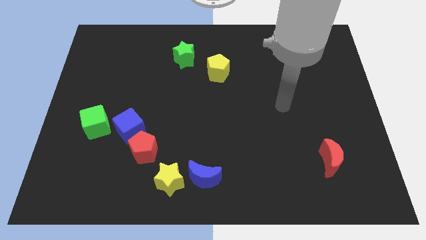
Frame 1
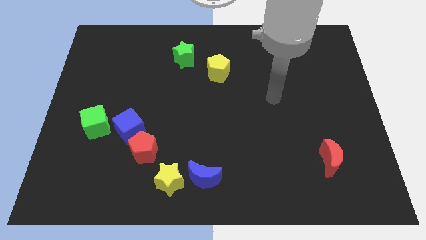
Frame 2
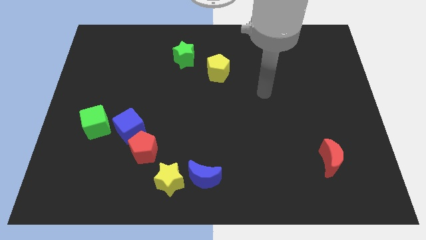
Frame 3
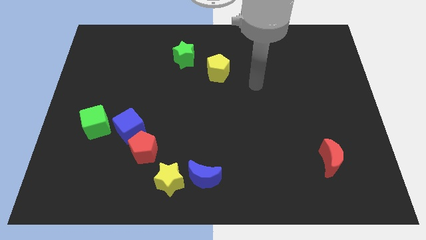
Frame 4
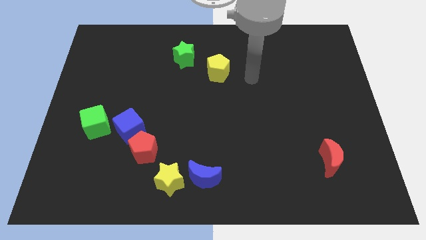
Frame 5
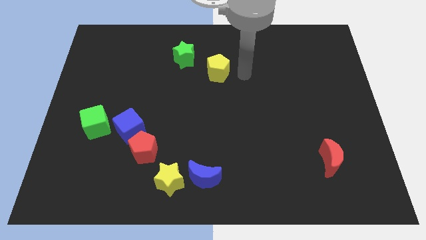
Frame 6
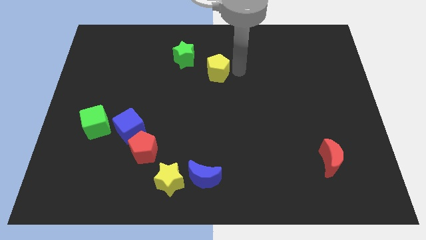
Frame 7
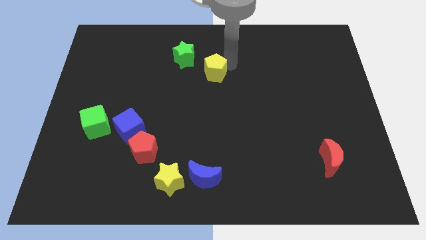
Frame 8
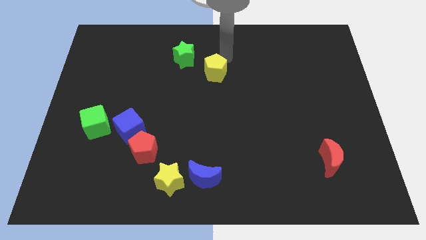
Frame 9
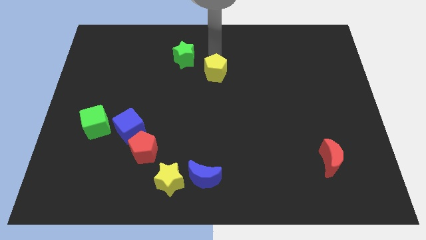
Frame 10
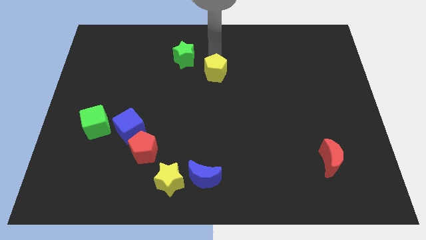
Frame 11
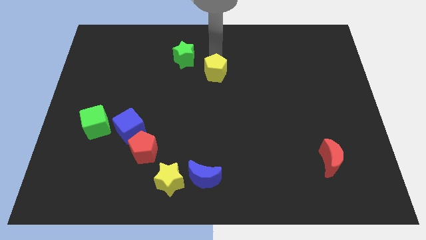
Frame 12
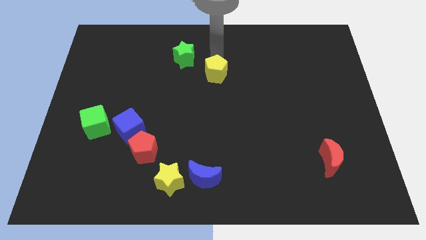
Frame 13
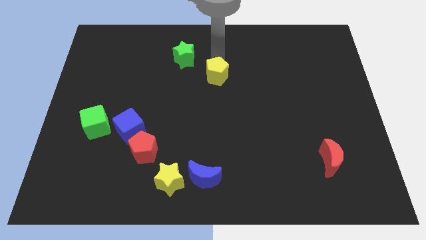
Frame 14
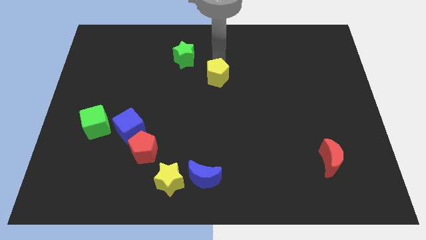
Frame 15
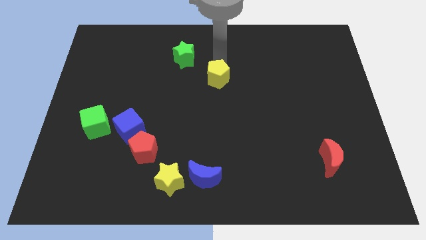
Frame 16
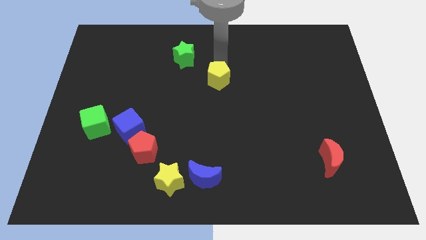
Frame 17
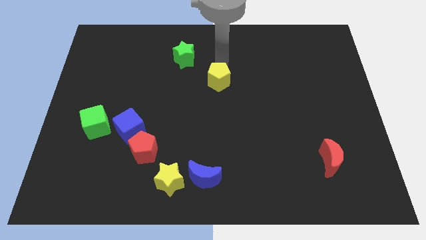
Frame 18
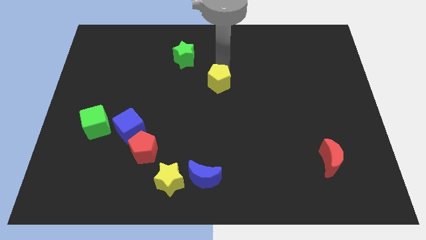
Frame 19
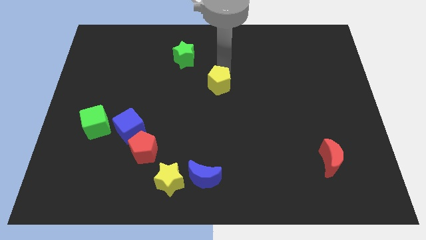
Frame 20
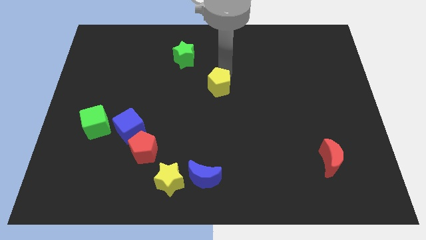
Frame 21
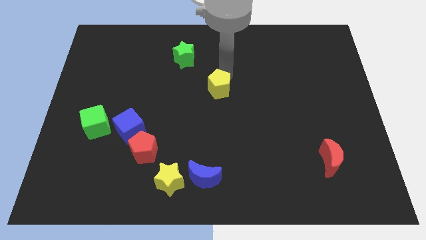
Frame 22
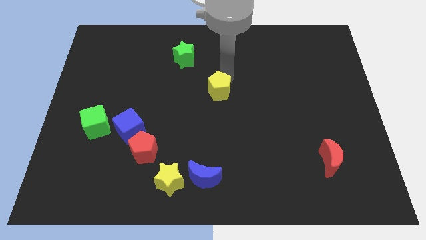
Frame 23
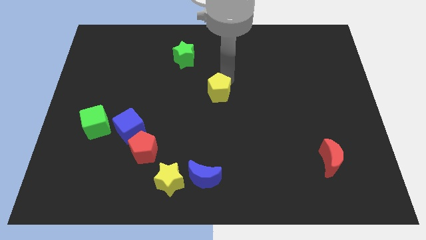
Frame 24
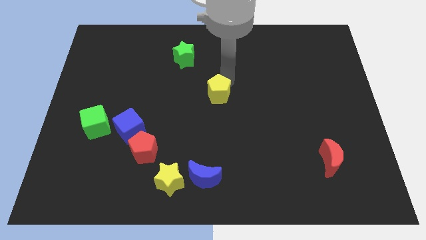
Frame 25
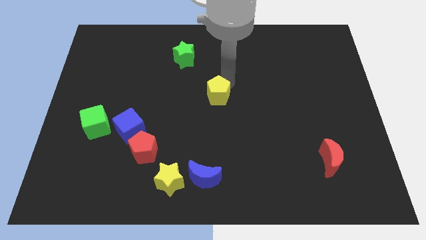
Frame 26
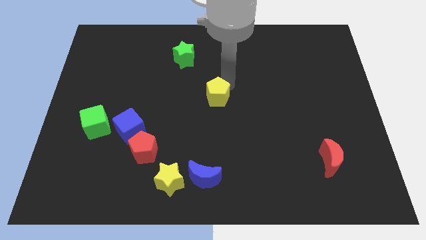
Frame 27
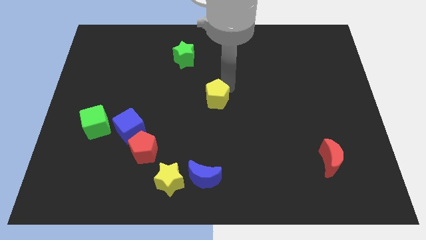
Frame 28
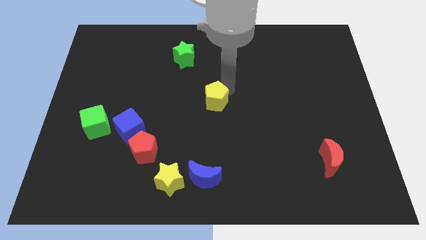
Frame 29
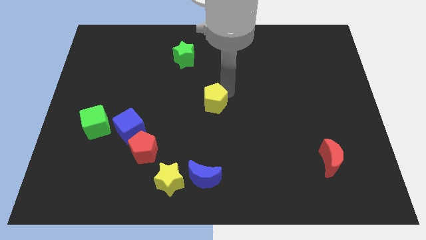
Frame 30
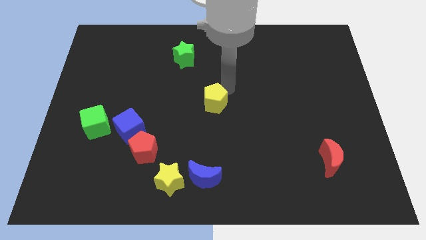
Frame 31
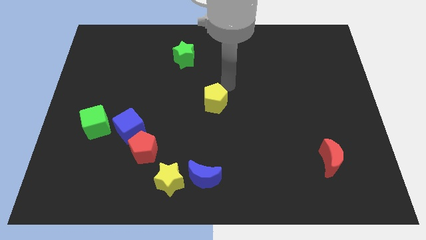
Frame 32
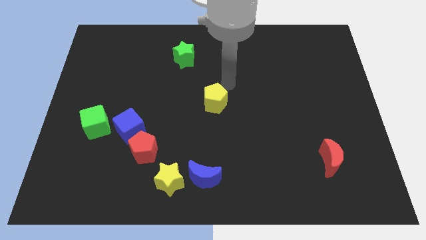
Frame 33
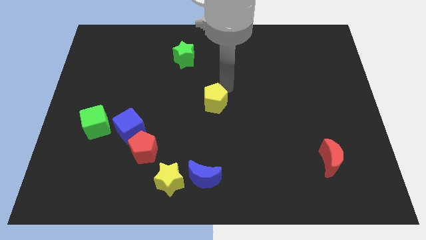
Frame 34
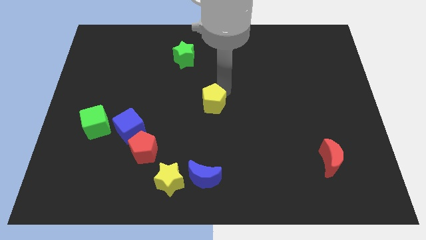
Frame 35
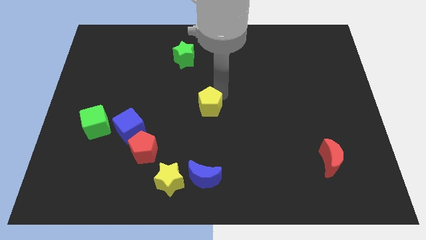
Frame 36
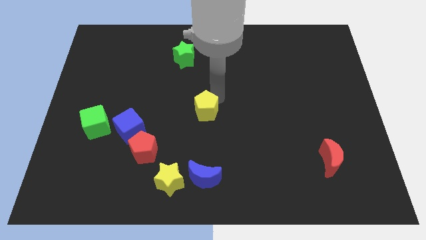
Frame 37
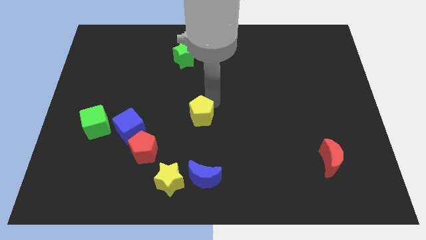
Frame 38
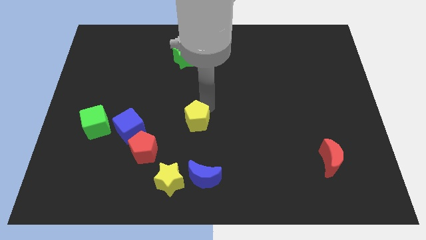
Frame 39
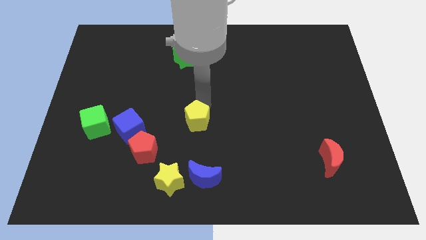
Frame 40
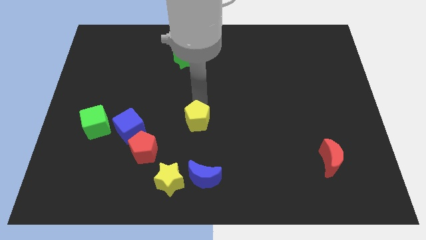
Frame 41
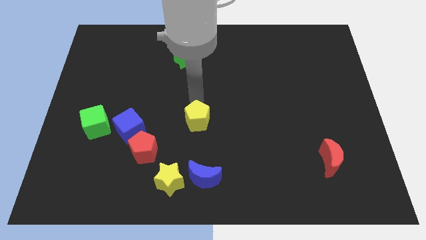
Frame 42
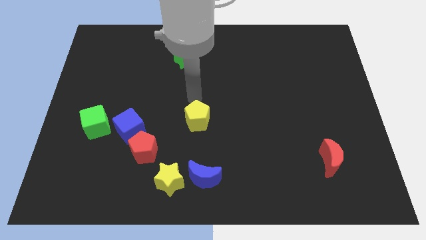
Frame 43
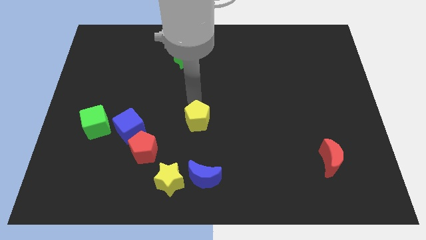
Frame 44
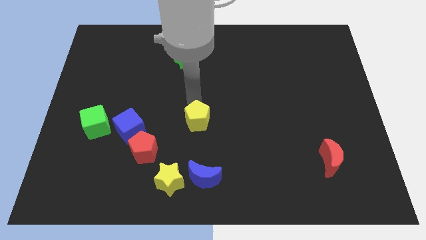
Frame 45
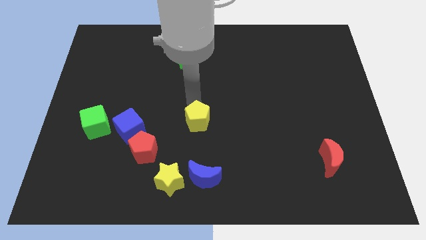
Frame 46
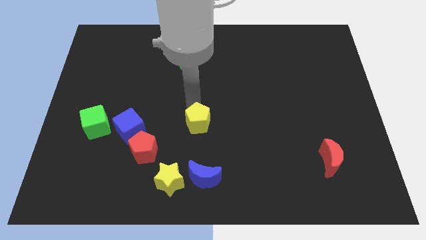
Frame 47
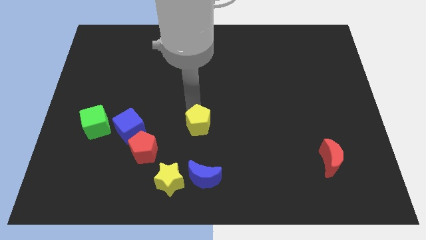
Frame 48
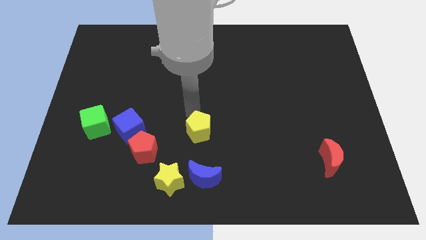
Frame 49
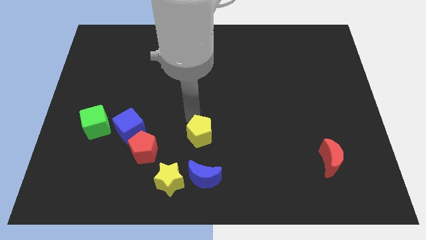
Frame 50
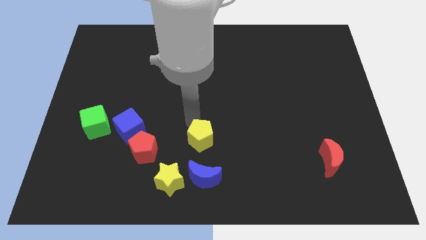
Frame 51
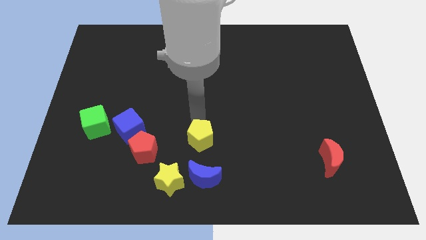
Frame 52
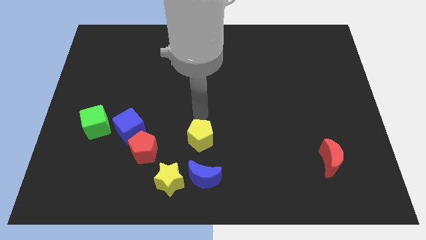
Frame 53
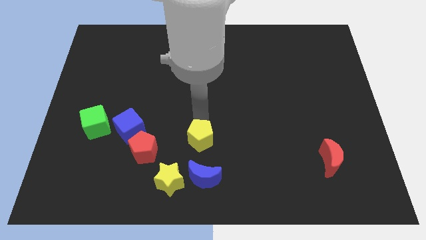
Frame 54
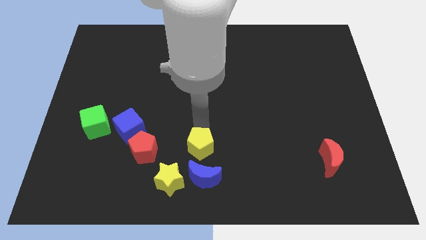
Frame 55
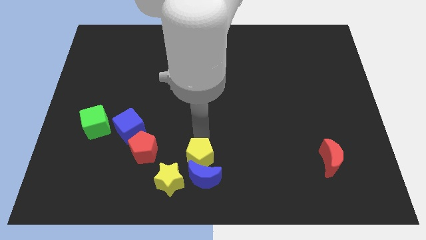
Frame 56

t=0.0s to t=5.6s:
slide the yellow pentagon towards the blue moon

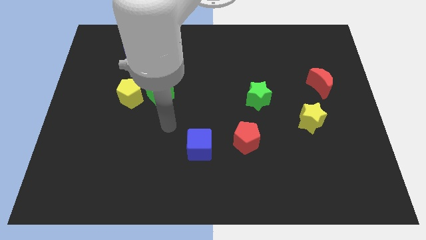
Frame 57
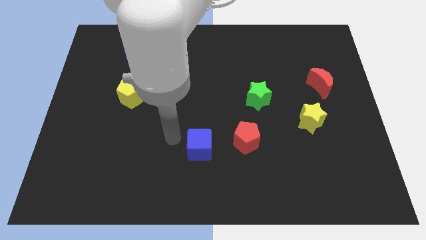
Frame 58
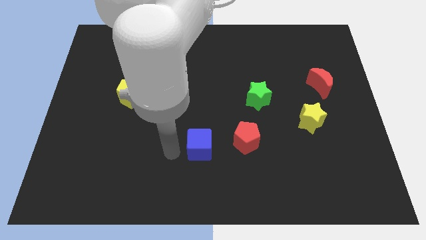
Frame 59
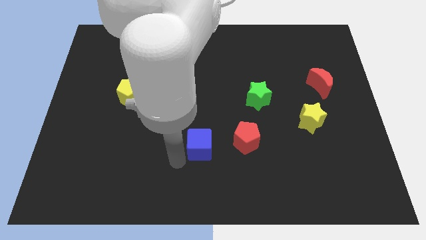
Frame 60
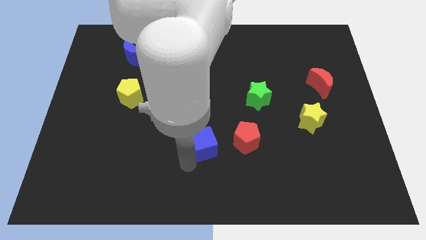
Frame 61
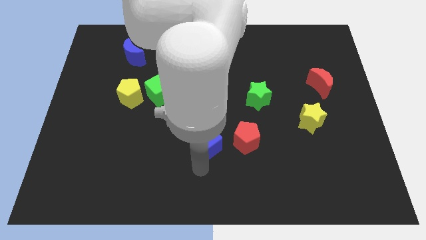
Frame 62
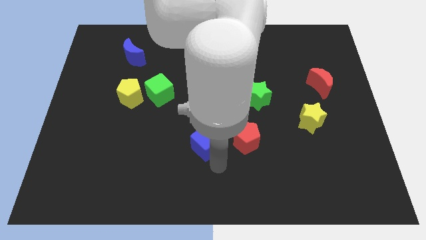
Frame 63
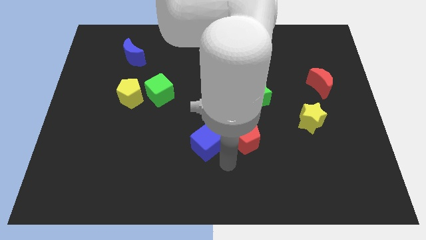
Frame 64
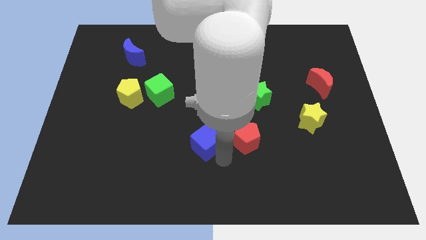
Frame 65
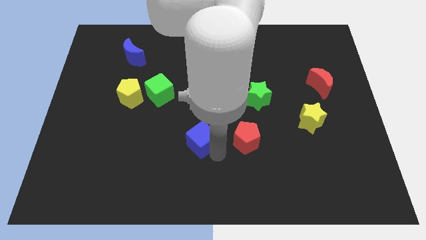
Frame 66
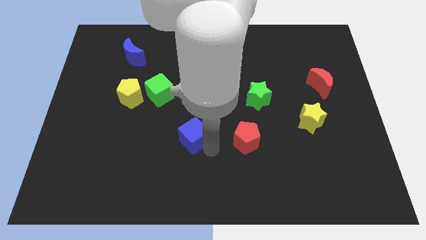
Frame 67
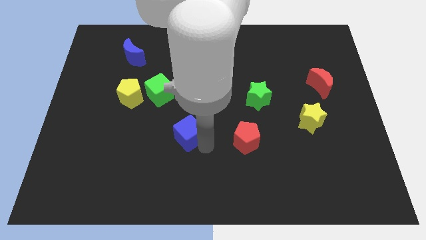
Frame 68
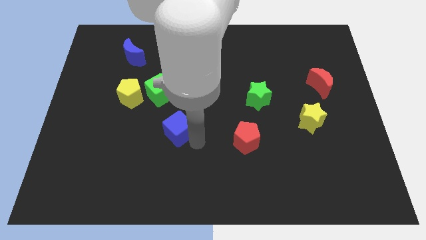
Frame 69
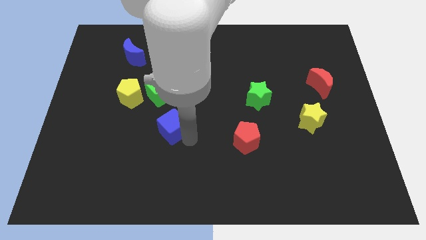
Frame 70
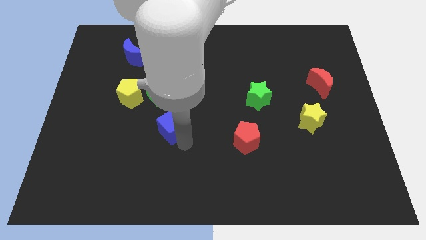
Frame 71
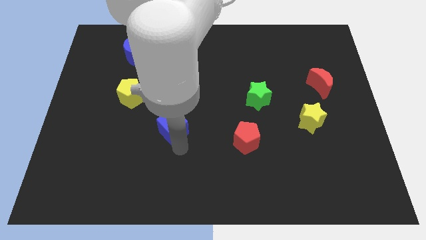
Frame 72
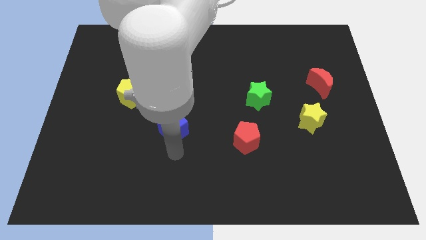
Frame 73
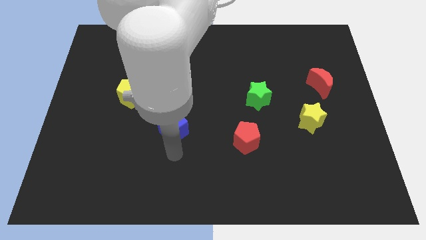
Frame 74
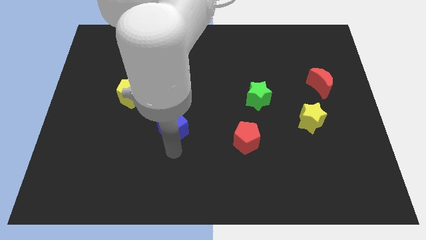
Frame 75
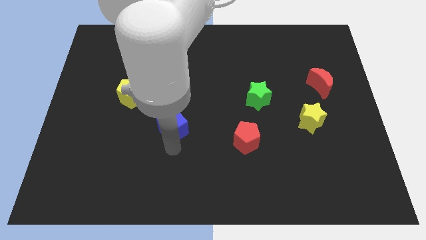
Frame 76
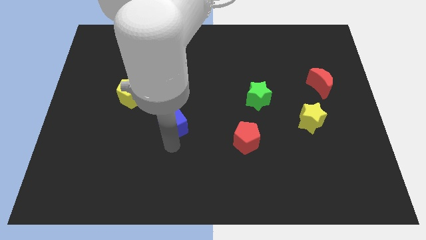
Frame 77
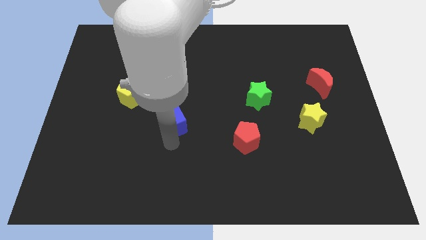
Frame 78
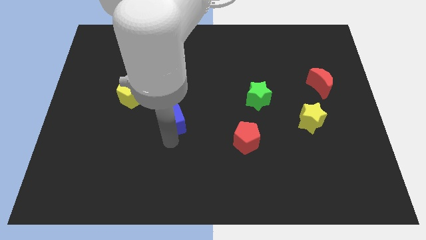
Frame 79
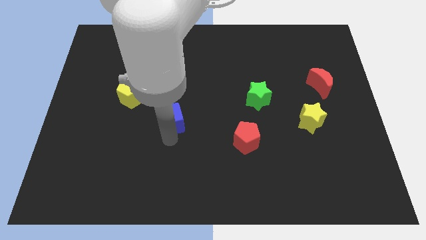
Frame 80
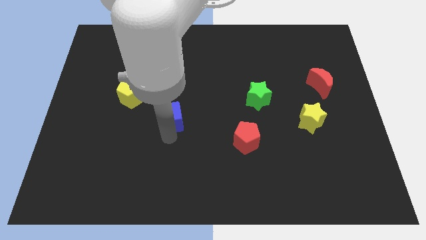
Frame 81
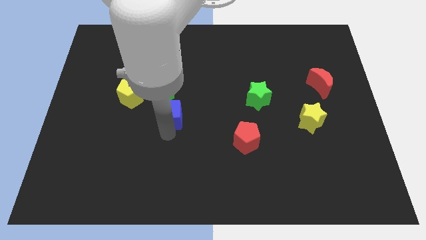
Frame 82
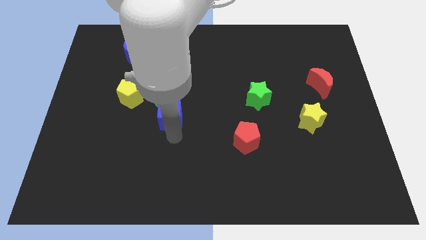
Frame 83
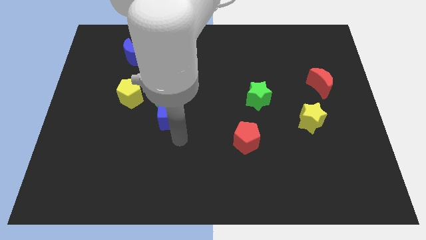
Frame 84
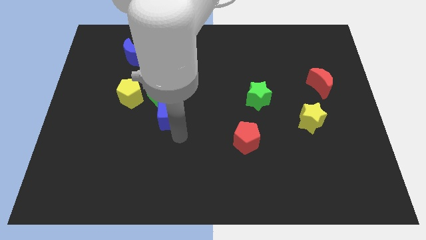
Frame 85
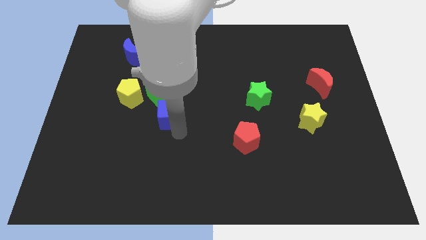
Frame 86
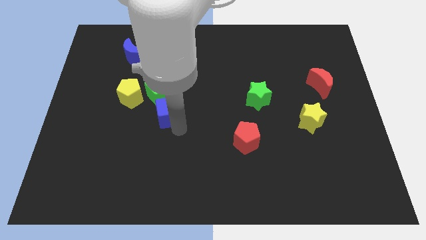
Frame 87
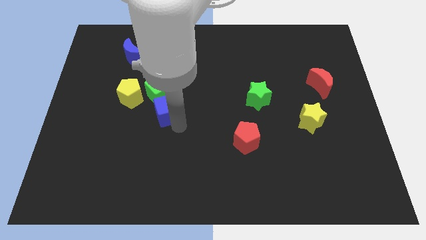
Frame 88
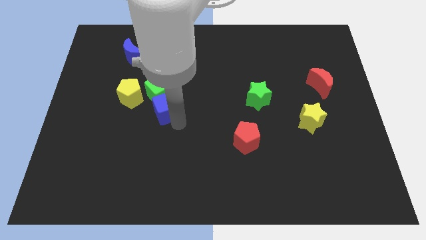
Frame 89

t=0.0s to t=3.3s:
slide the blue cube close to the green cube
